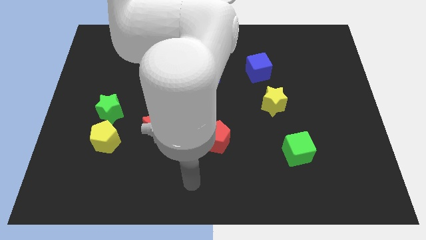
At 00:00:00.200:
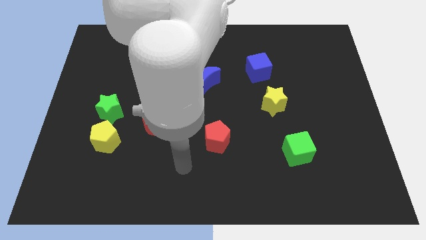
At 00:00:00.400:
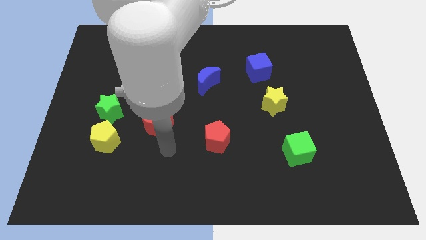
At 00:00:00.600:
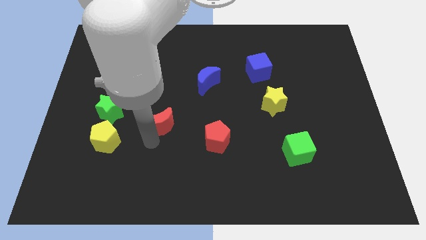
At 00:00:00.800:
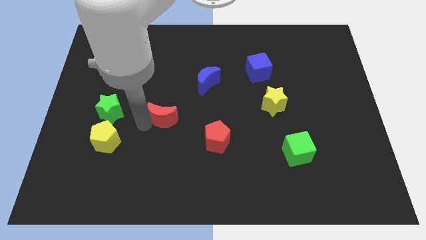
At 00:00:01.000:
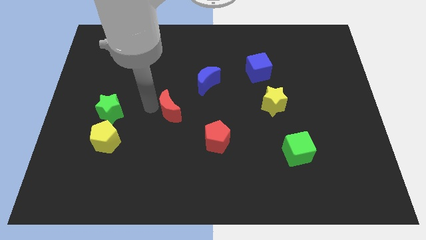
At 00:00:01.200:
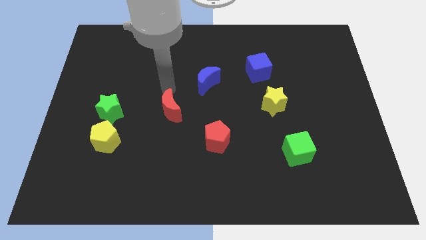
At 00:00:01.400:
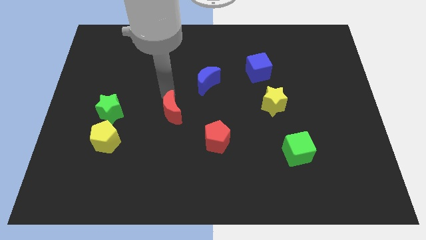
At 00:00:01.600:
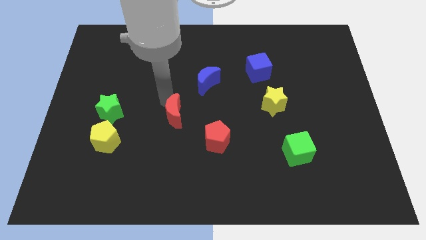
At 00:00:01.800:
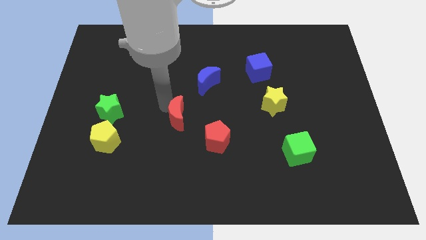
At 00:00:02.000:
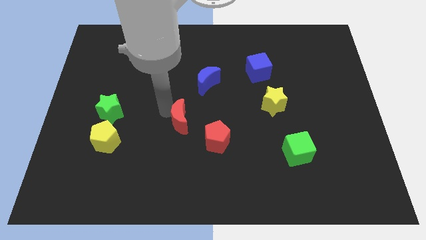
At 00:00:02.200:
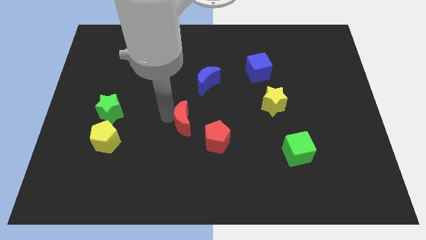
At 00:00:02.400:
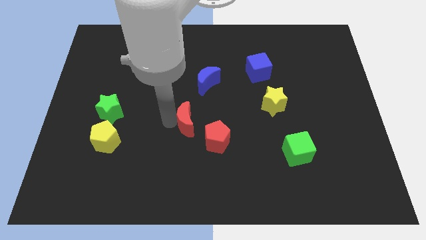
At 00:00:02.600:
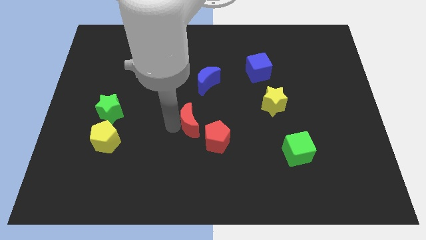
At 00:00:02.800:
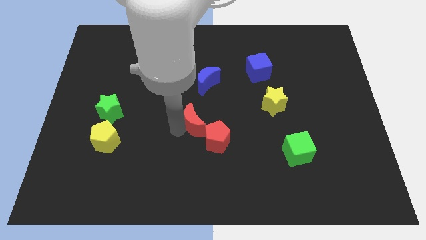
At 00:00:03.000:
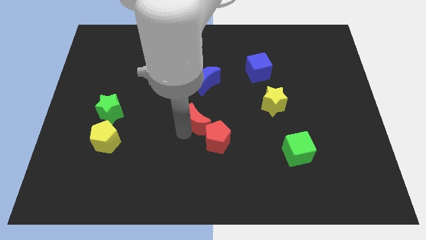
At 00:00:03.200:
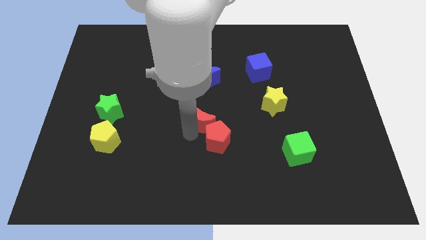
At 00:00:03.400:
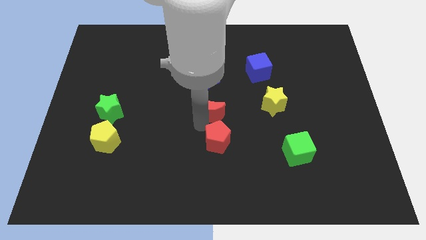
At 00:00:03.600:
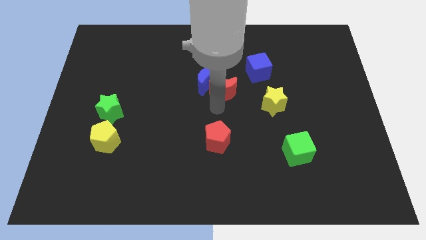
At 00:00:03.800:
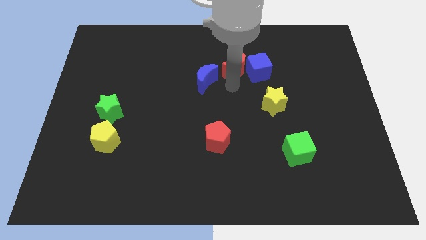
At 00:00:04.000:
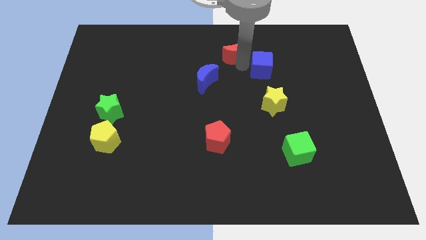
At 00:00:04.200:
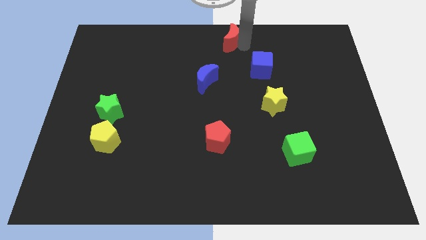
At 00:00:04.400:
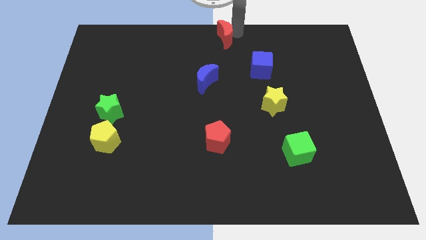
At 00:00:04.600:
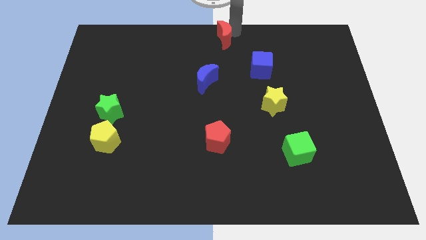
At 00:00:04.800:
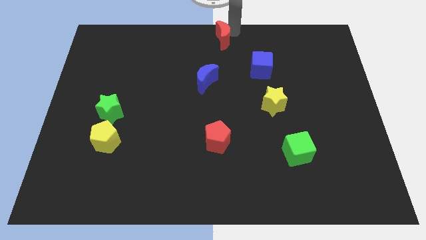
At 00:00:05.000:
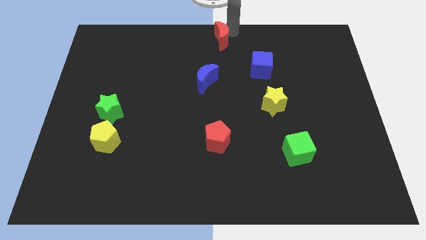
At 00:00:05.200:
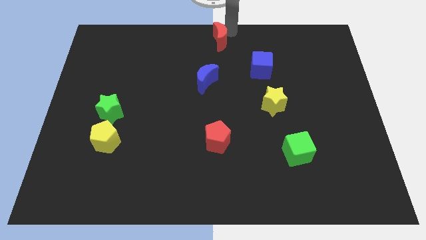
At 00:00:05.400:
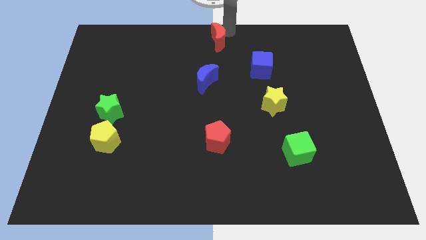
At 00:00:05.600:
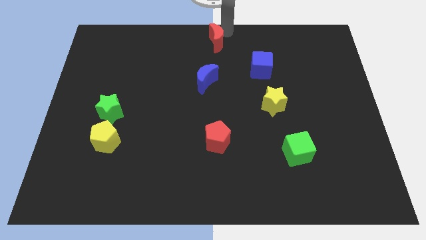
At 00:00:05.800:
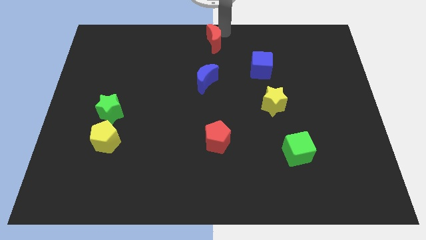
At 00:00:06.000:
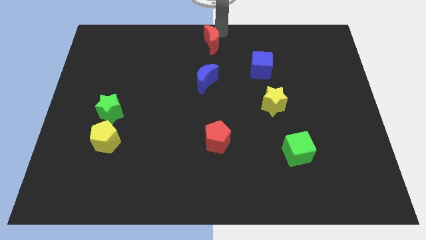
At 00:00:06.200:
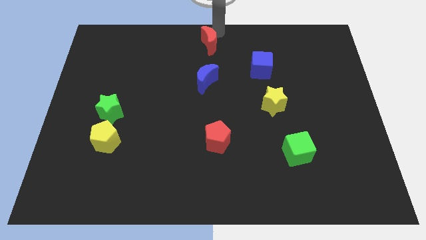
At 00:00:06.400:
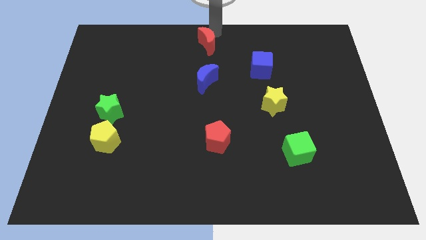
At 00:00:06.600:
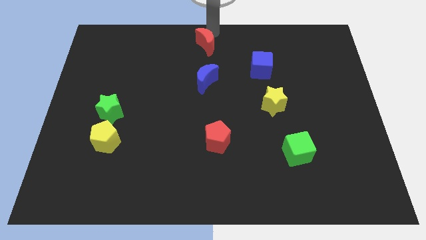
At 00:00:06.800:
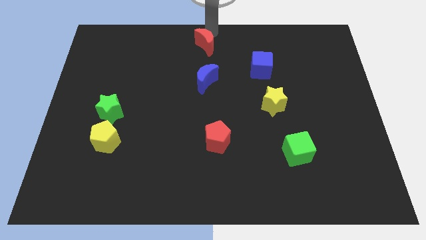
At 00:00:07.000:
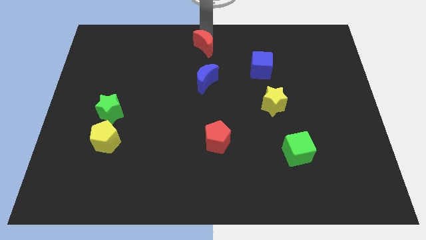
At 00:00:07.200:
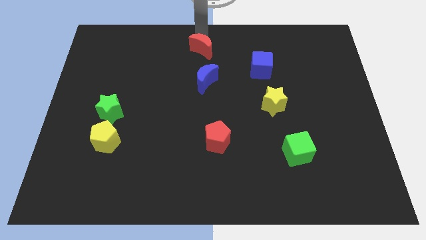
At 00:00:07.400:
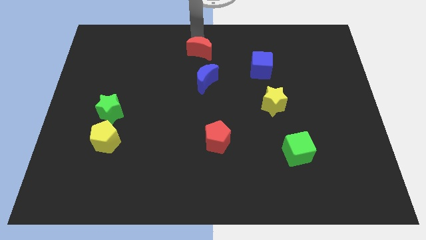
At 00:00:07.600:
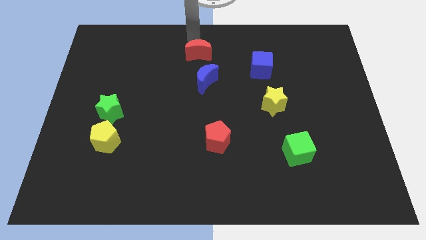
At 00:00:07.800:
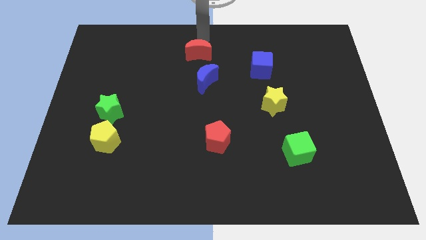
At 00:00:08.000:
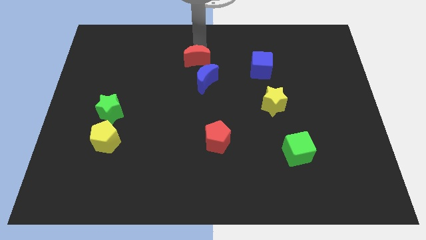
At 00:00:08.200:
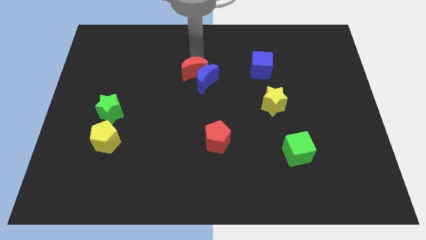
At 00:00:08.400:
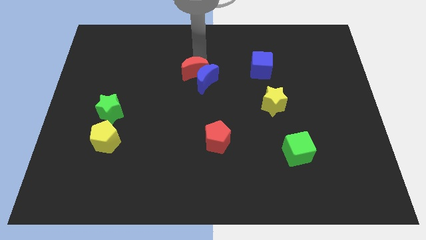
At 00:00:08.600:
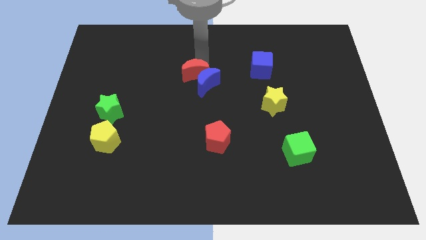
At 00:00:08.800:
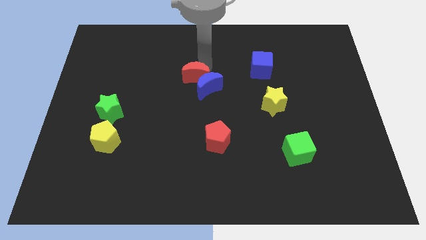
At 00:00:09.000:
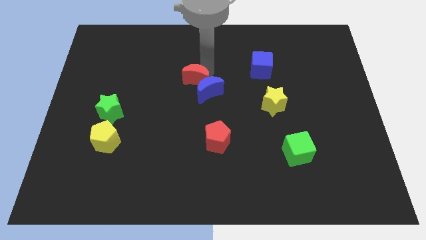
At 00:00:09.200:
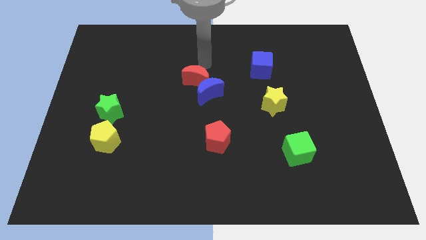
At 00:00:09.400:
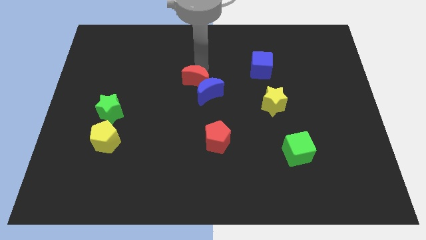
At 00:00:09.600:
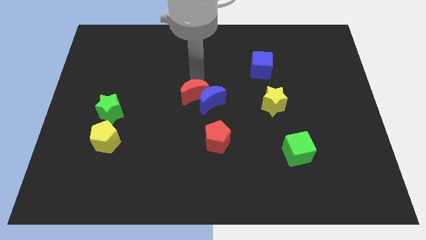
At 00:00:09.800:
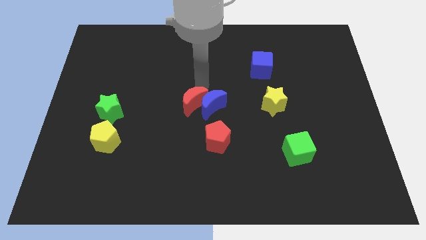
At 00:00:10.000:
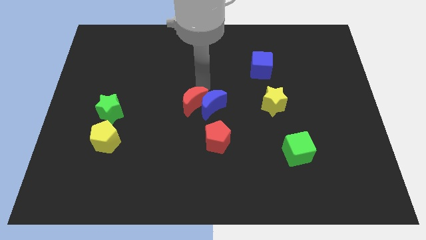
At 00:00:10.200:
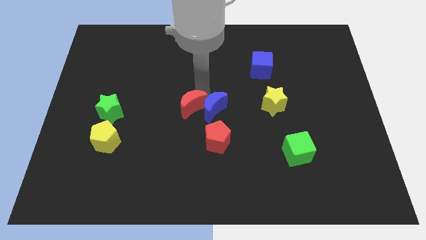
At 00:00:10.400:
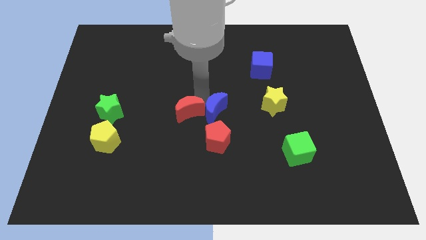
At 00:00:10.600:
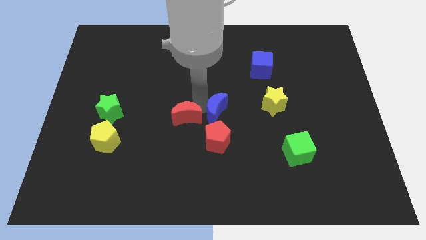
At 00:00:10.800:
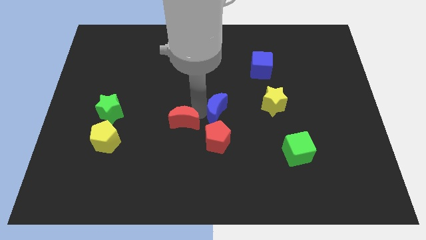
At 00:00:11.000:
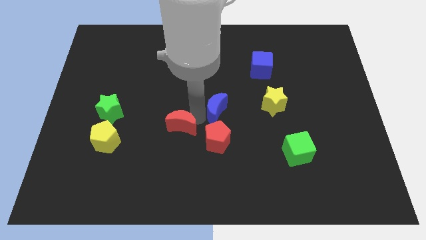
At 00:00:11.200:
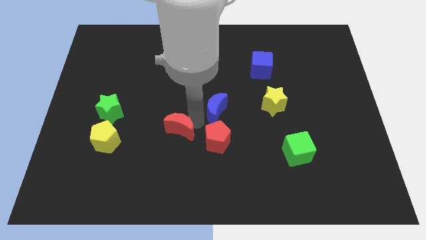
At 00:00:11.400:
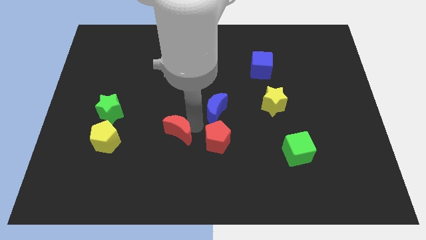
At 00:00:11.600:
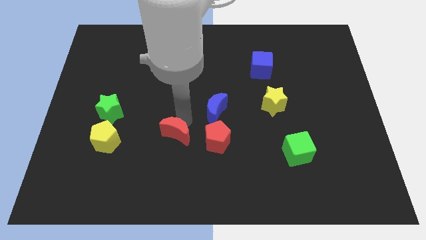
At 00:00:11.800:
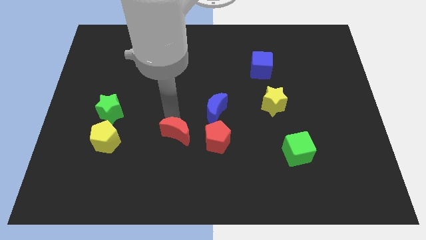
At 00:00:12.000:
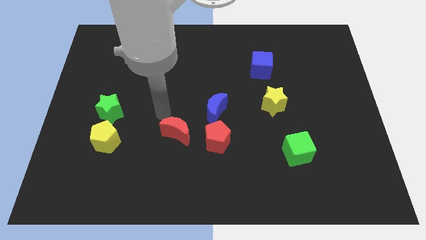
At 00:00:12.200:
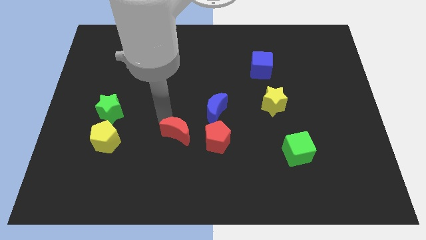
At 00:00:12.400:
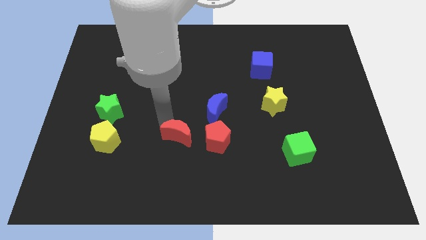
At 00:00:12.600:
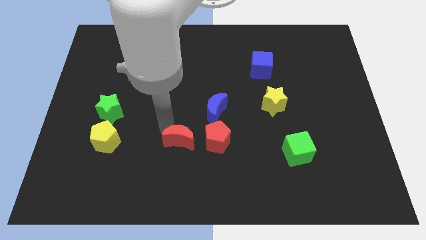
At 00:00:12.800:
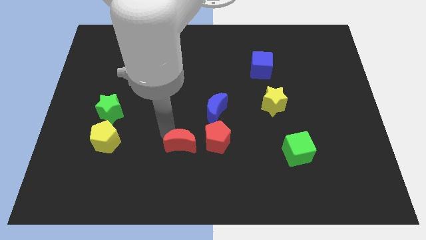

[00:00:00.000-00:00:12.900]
move the red moon somewhat down and to the right

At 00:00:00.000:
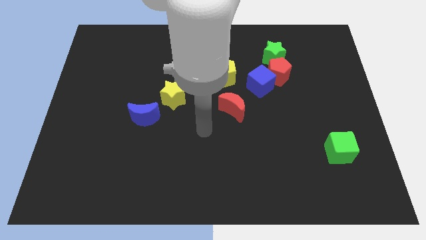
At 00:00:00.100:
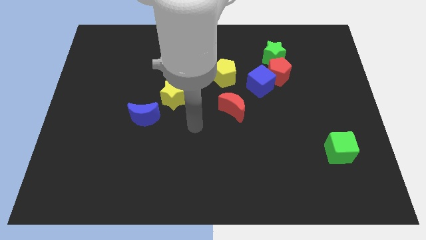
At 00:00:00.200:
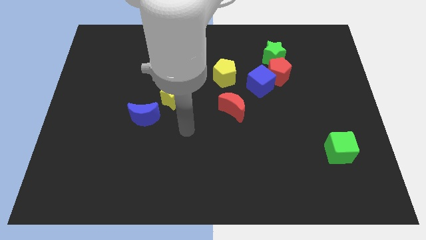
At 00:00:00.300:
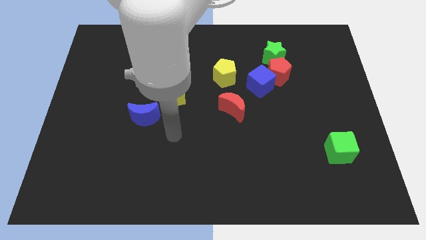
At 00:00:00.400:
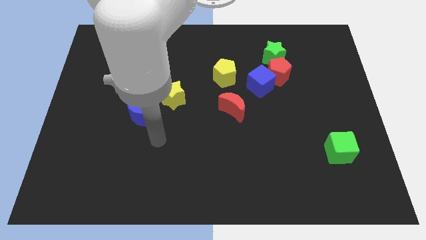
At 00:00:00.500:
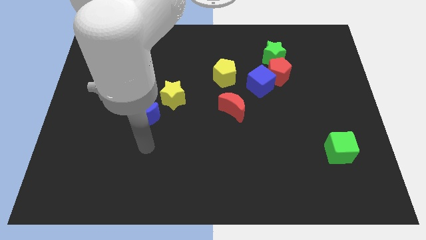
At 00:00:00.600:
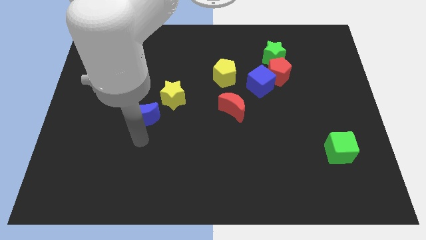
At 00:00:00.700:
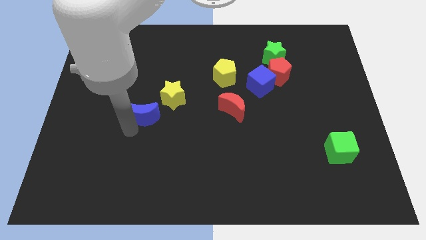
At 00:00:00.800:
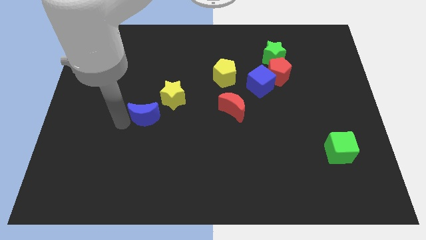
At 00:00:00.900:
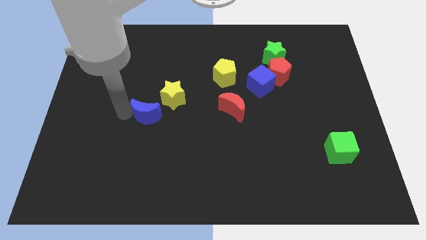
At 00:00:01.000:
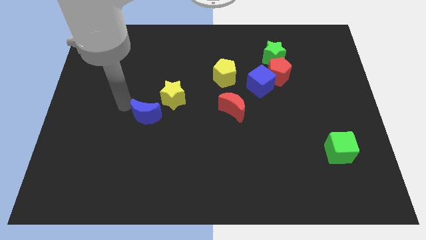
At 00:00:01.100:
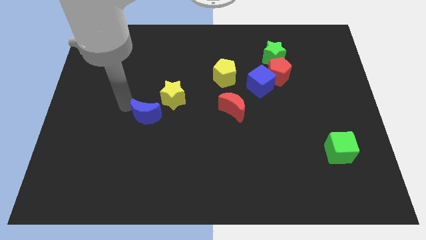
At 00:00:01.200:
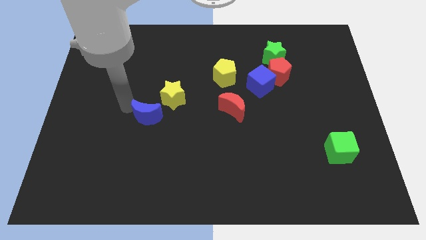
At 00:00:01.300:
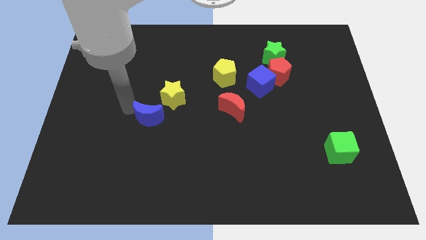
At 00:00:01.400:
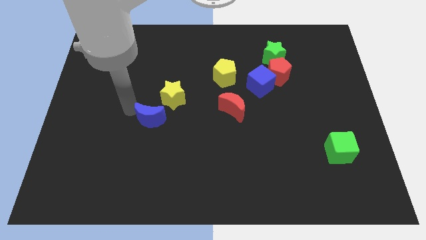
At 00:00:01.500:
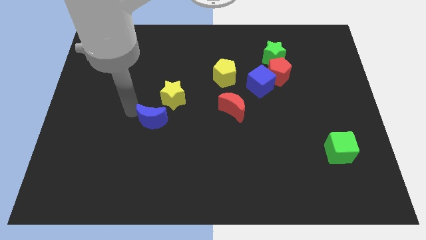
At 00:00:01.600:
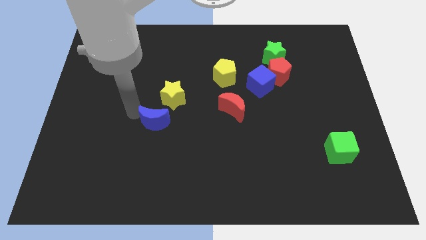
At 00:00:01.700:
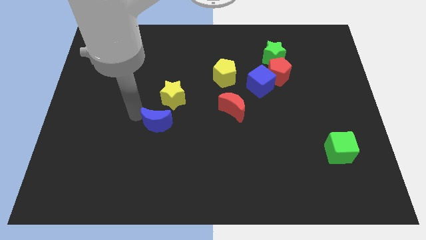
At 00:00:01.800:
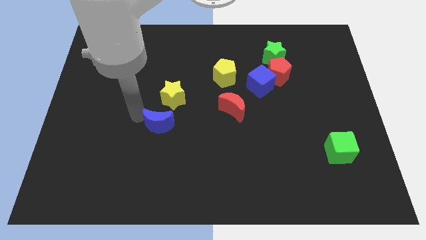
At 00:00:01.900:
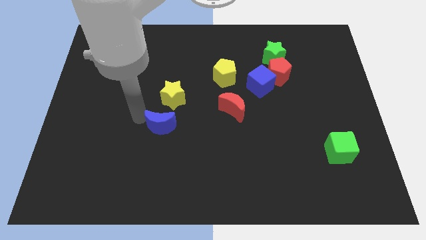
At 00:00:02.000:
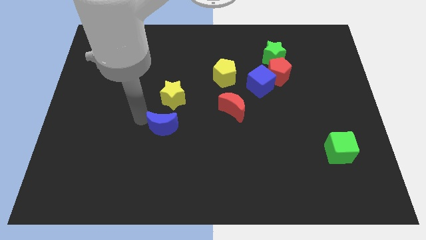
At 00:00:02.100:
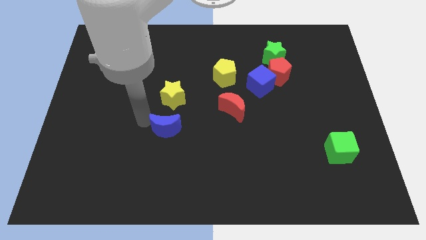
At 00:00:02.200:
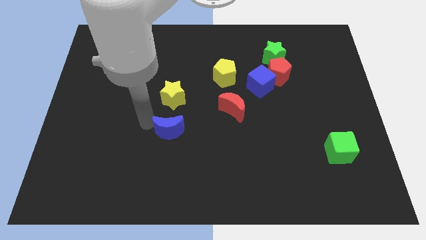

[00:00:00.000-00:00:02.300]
slightly move the blue moon down and right diagonally
